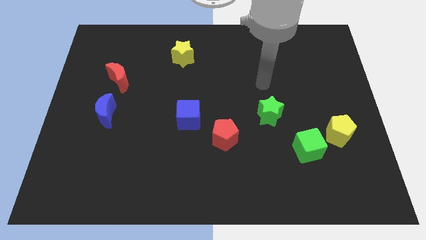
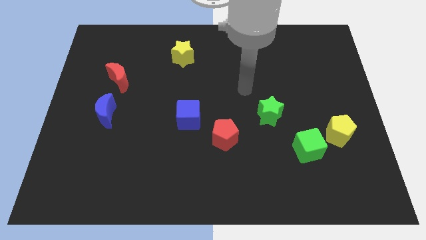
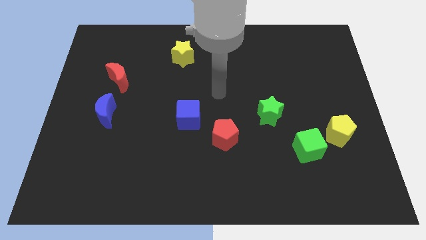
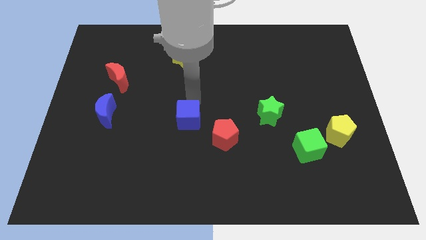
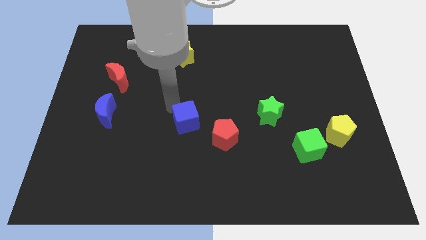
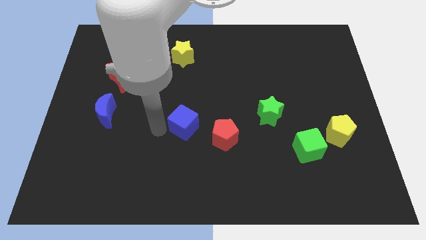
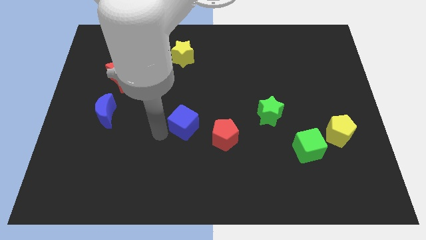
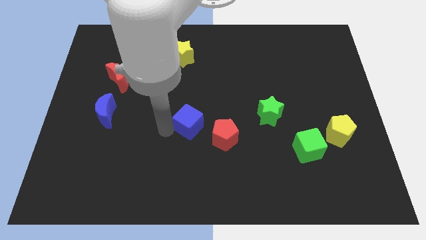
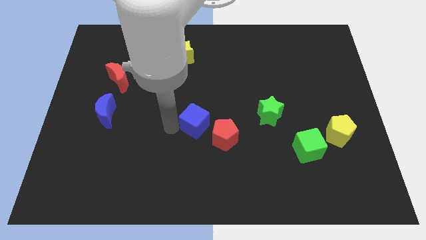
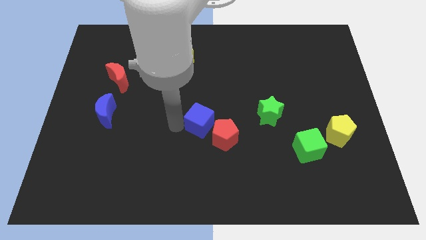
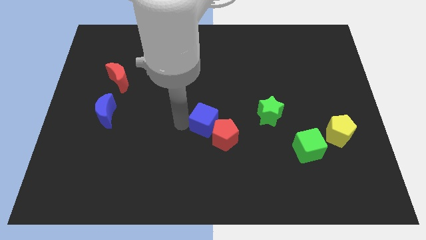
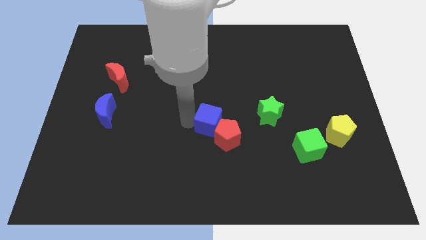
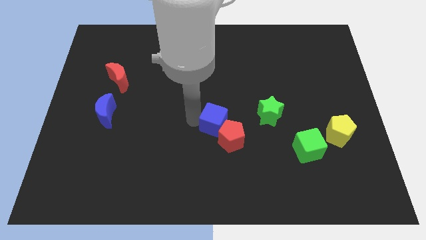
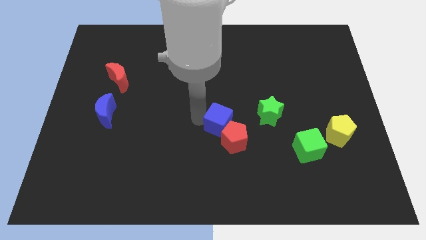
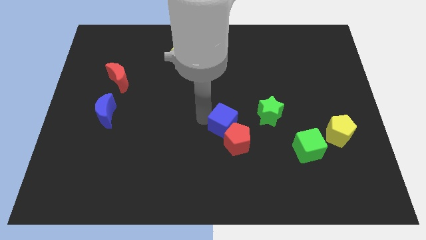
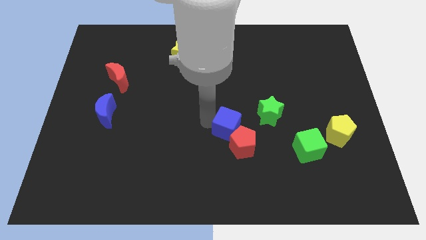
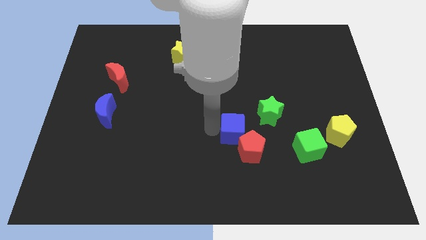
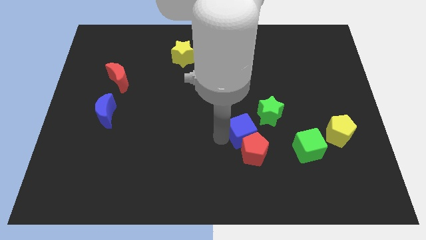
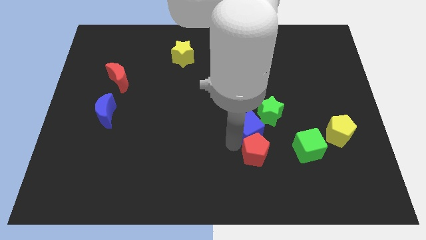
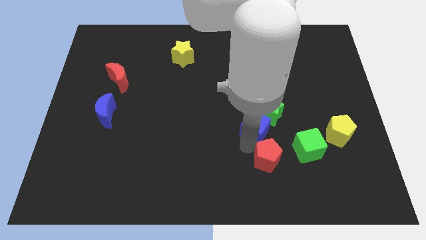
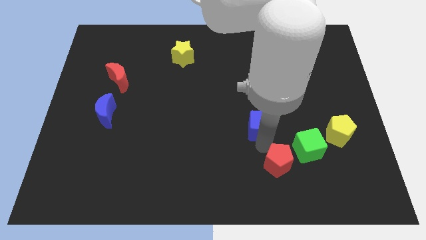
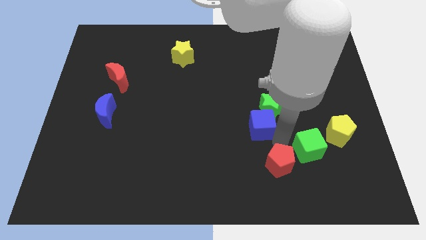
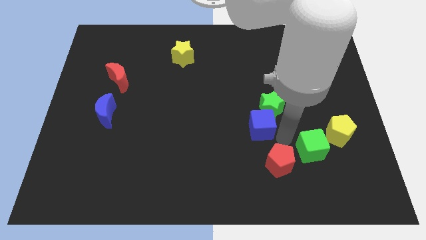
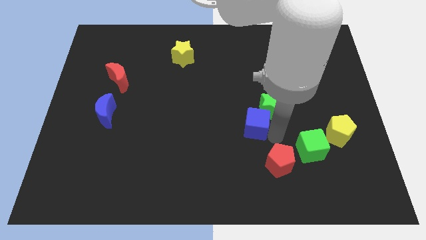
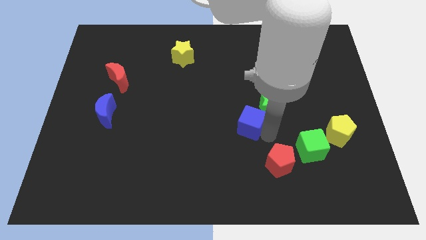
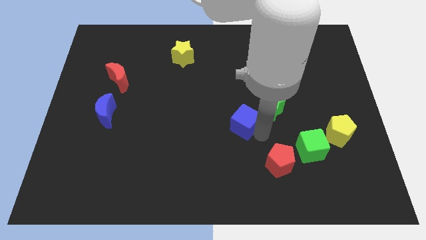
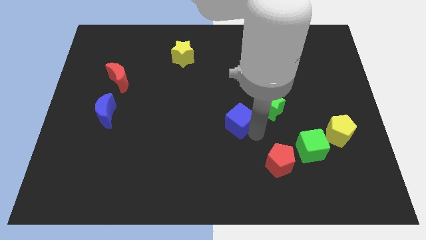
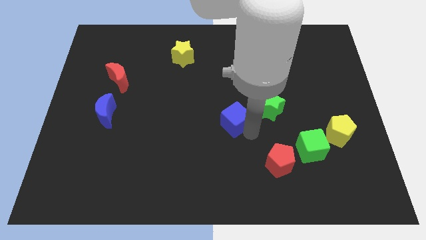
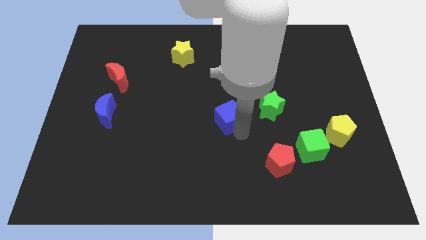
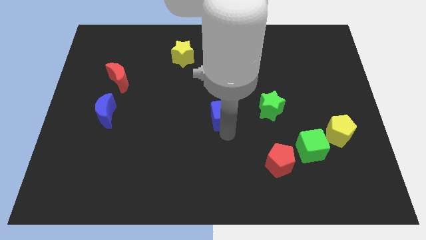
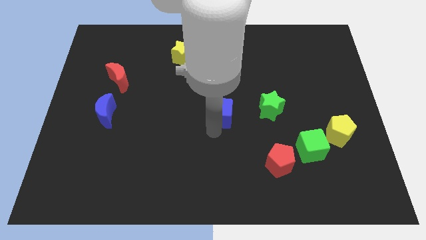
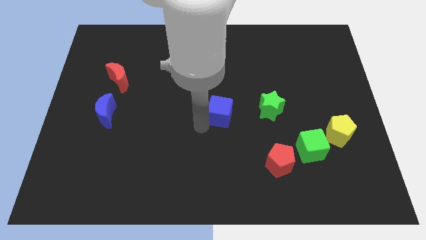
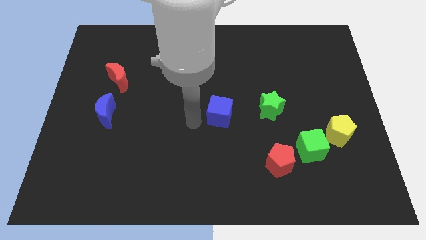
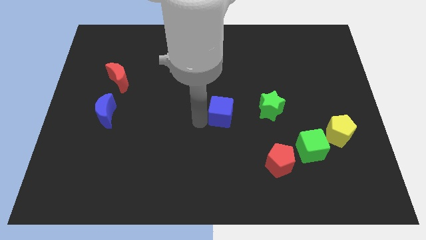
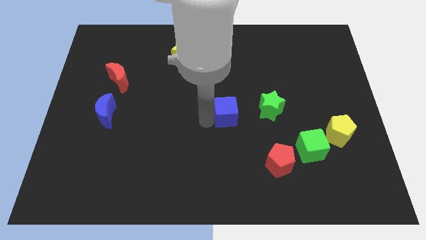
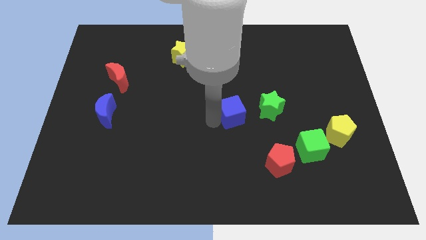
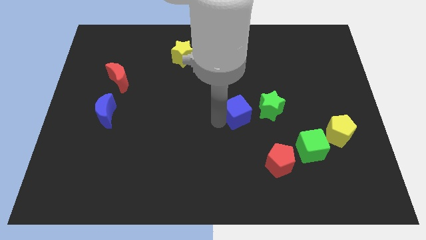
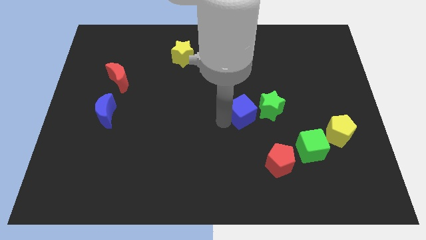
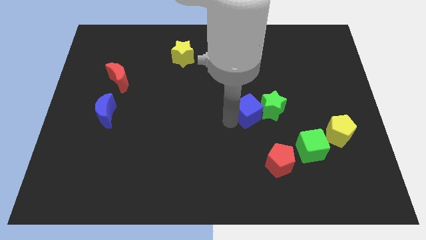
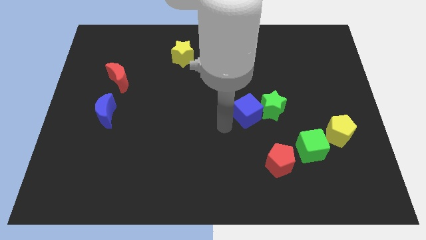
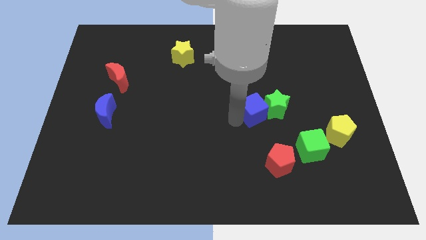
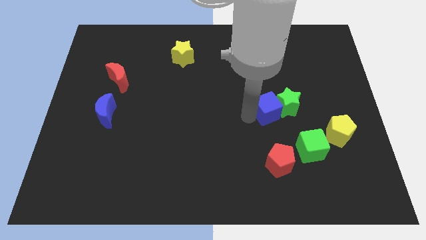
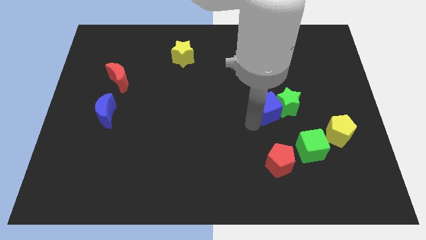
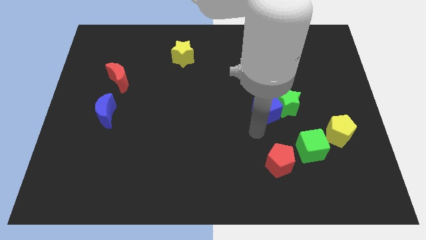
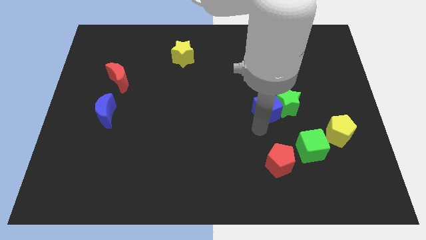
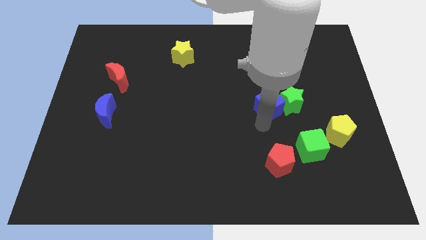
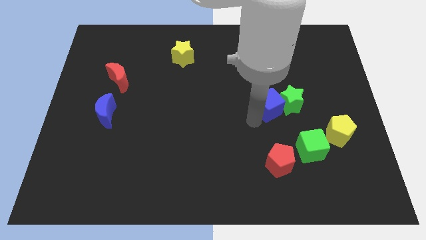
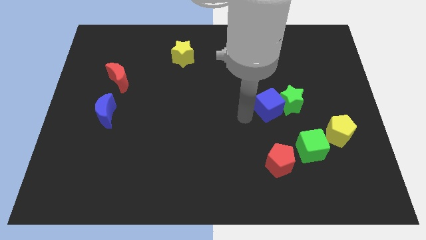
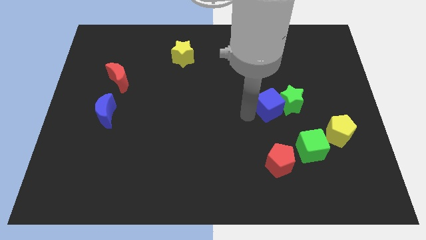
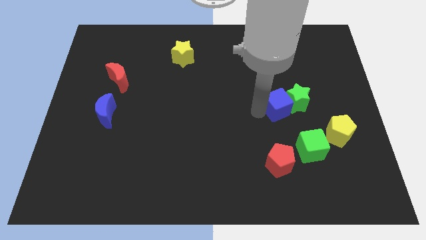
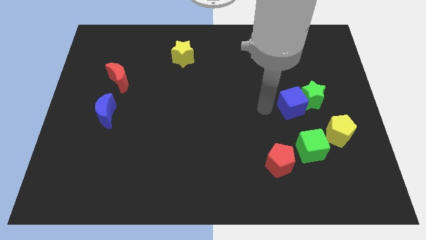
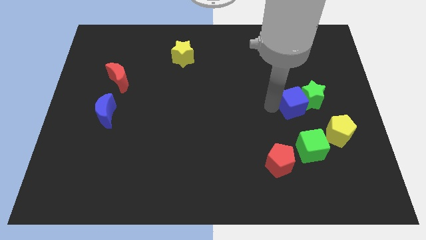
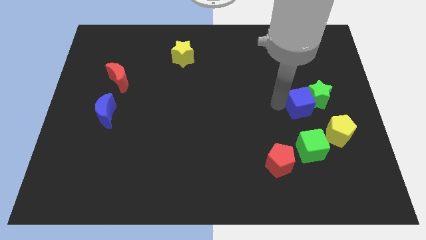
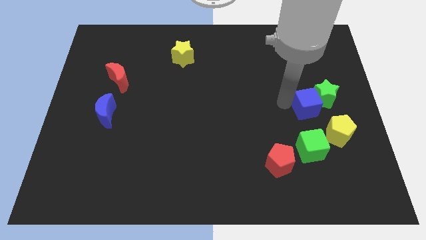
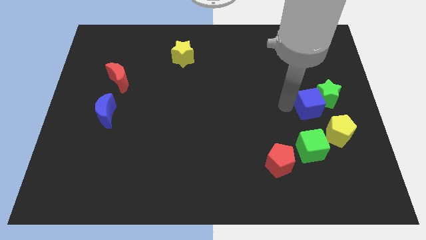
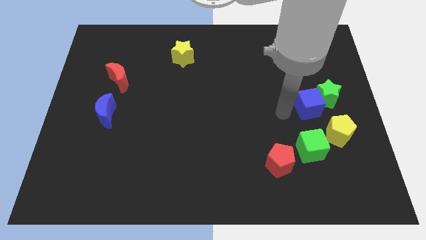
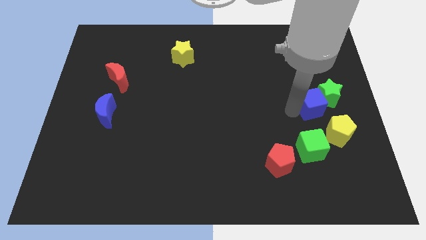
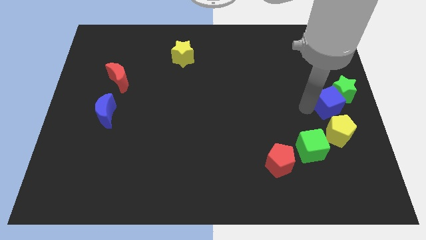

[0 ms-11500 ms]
slide the blue cube to the right side

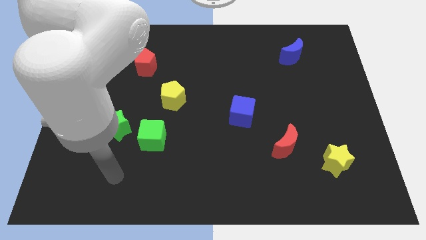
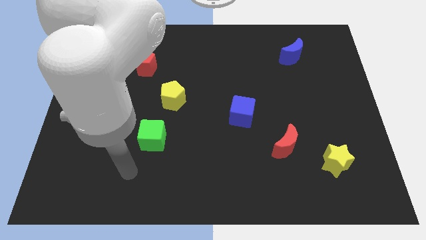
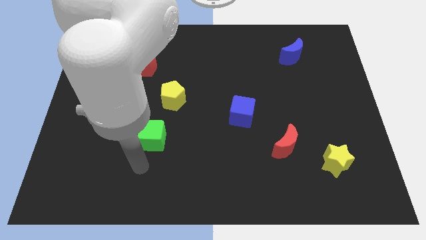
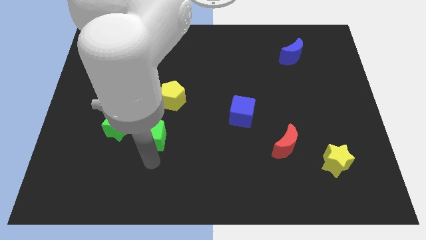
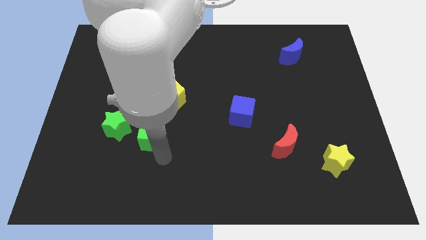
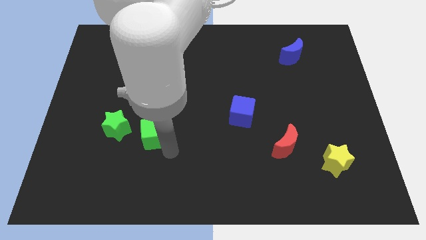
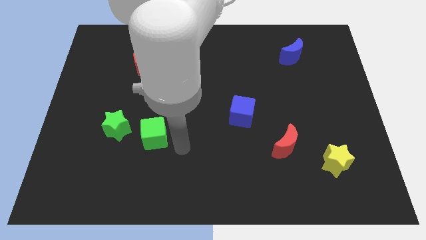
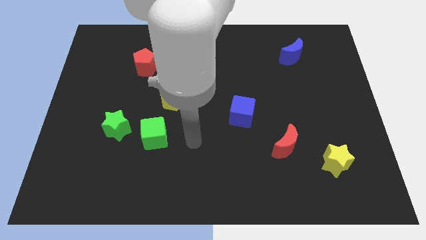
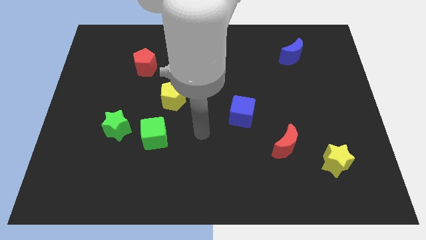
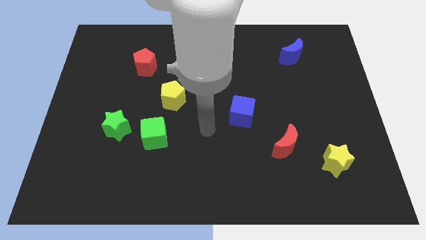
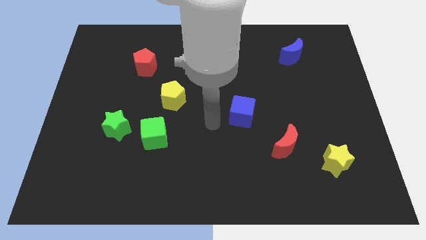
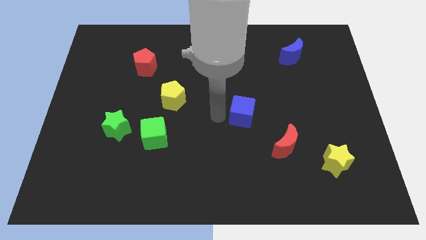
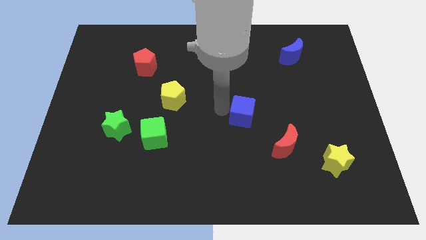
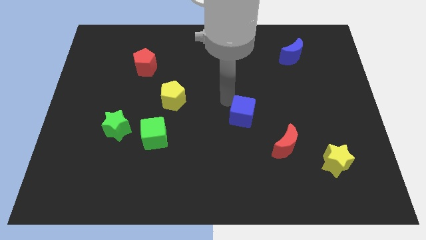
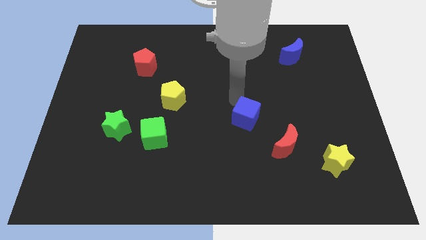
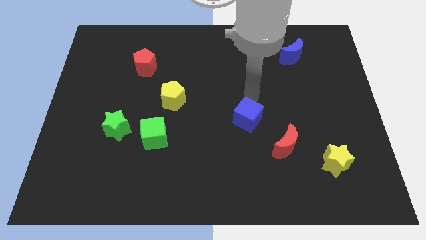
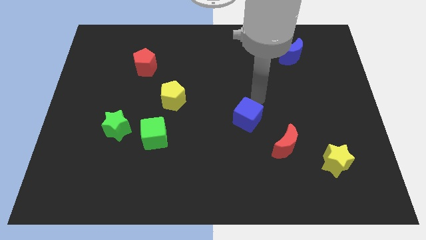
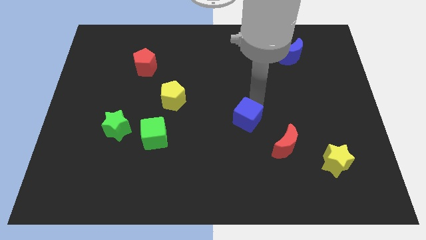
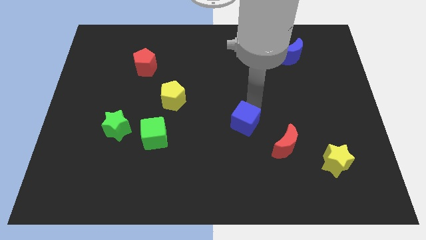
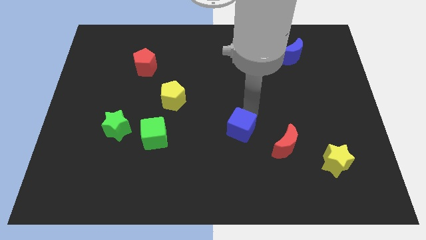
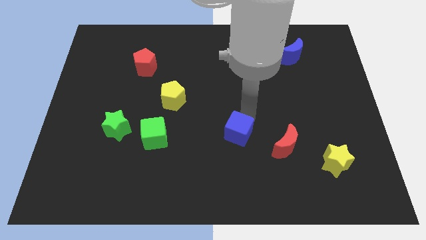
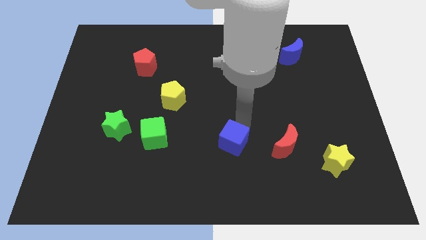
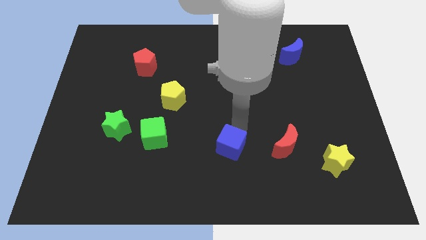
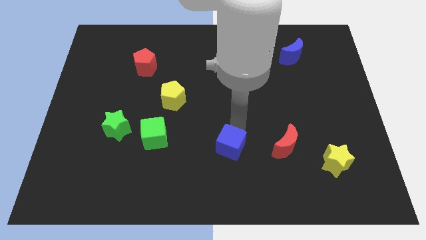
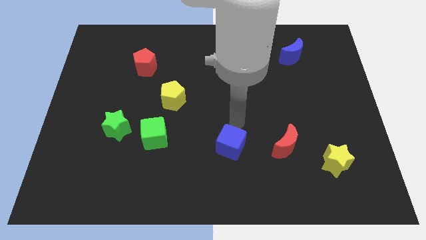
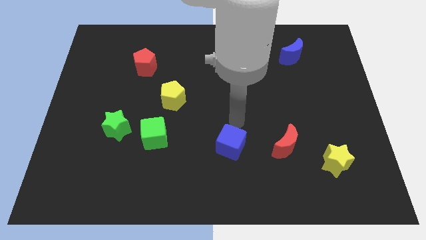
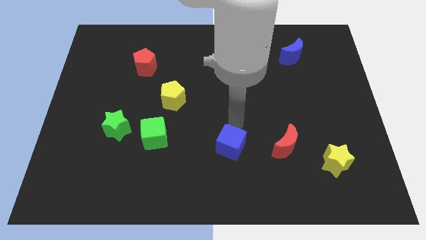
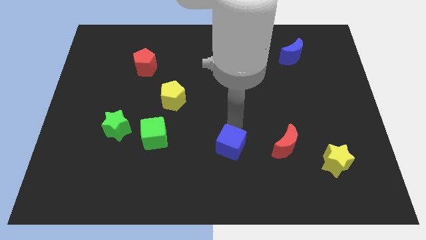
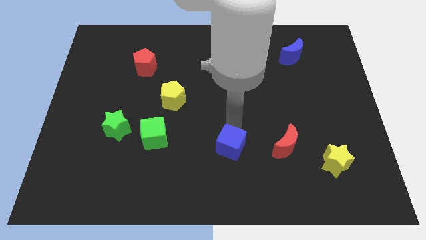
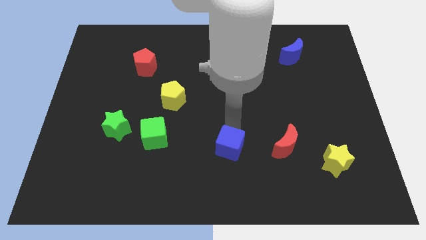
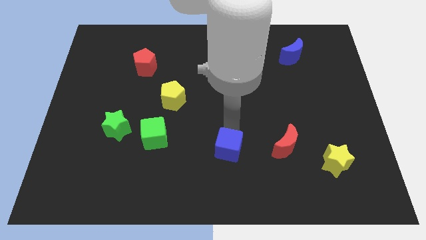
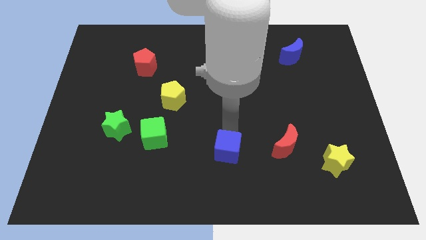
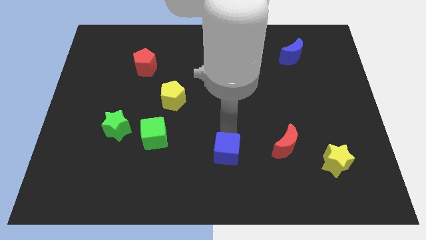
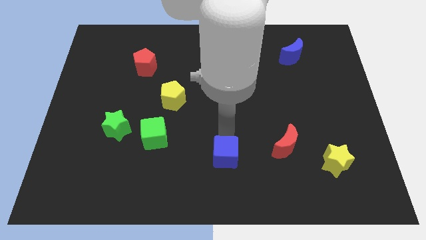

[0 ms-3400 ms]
push the blue cube to the bottom
